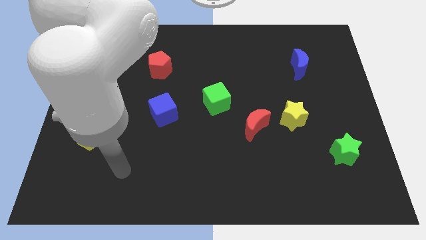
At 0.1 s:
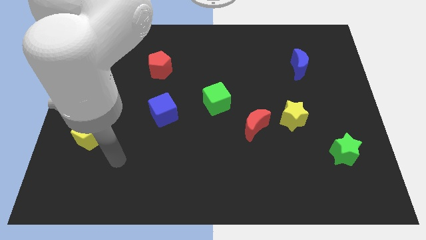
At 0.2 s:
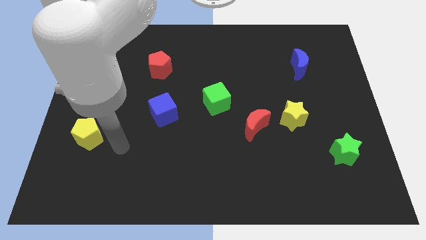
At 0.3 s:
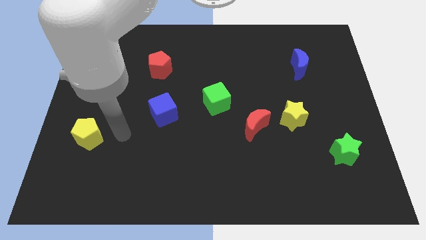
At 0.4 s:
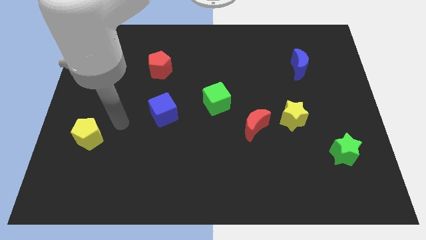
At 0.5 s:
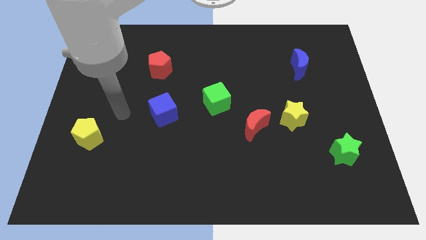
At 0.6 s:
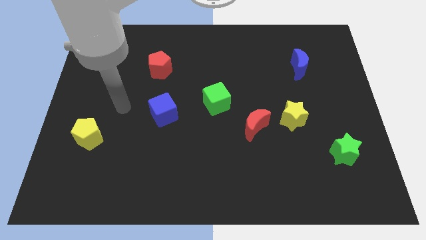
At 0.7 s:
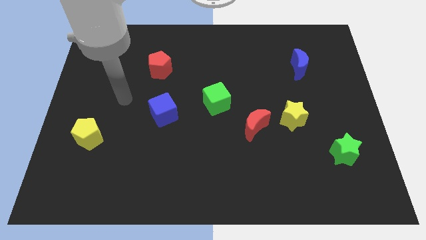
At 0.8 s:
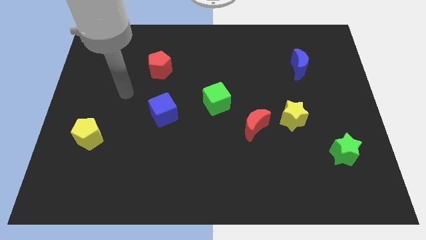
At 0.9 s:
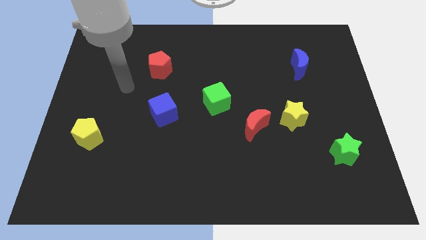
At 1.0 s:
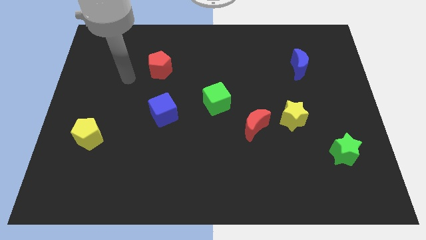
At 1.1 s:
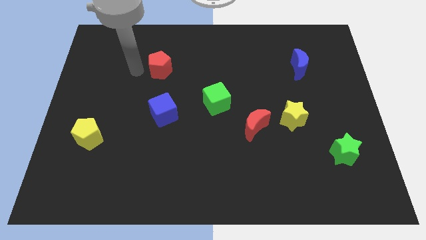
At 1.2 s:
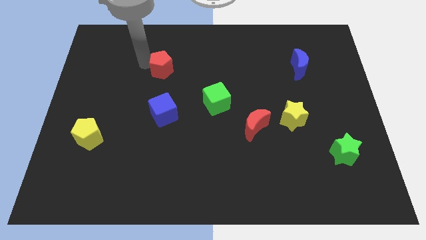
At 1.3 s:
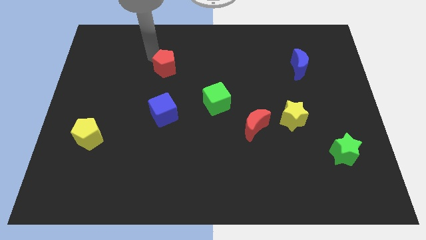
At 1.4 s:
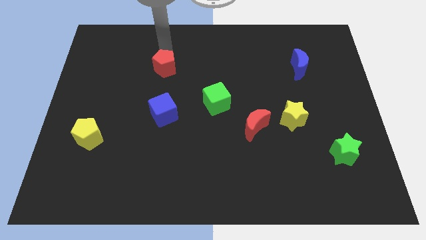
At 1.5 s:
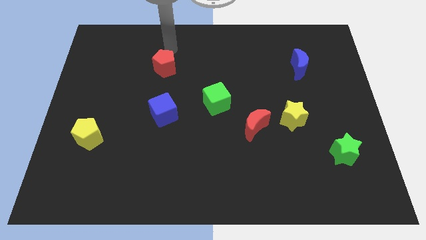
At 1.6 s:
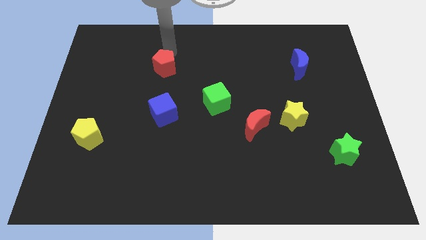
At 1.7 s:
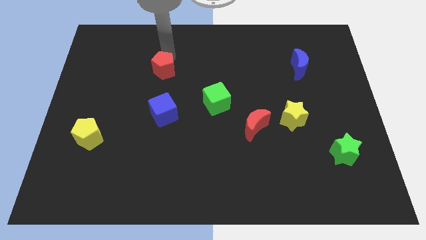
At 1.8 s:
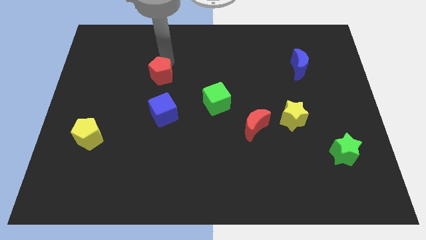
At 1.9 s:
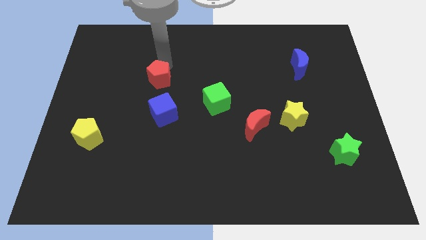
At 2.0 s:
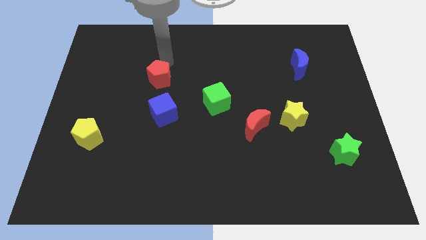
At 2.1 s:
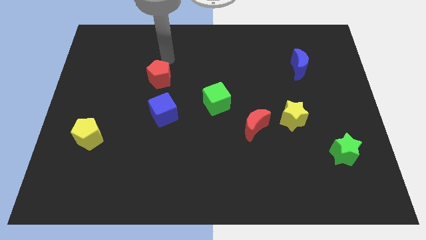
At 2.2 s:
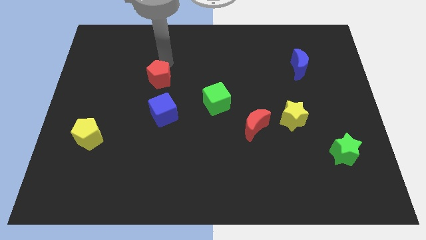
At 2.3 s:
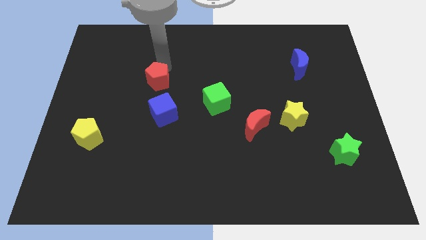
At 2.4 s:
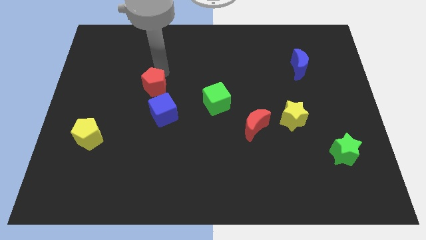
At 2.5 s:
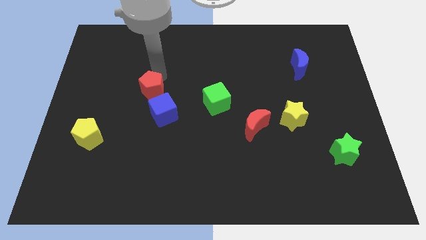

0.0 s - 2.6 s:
push the red pentagon a bit down

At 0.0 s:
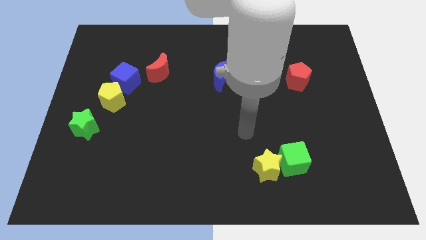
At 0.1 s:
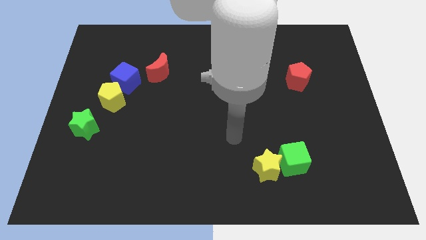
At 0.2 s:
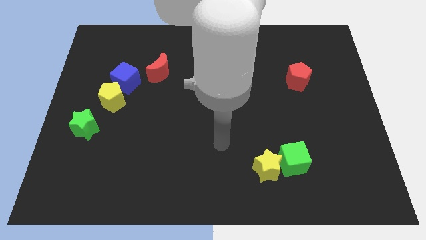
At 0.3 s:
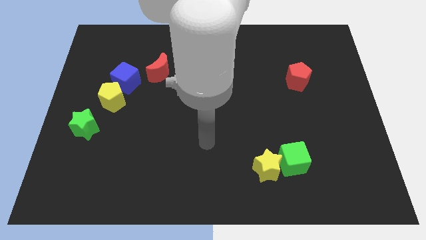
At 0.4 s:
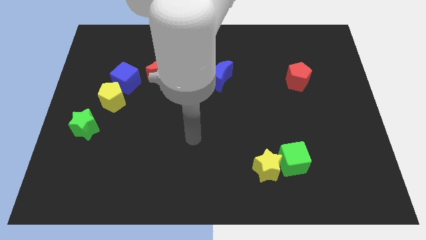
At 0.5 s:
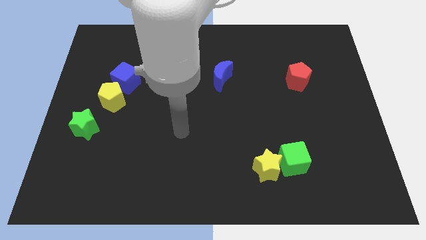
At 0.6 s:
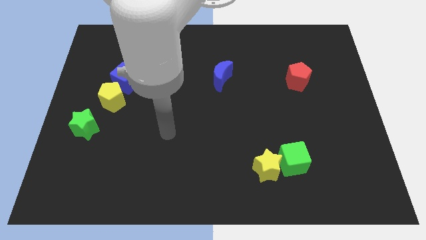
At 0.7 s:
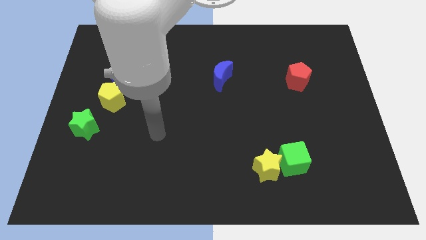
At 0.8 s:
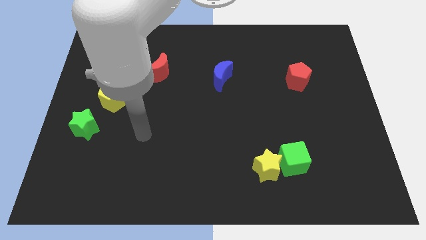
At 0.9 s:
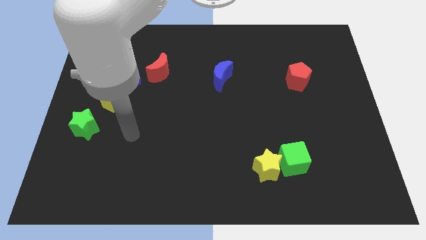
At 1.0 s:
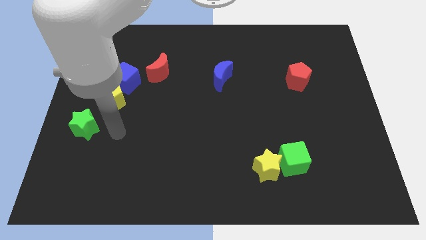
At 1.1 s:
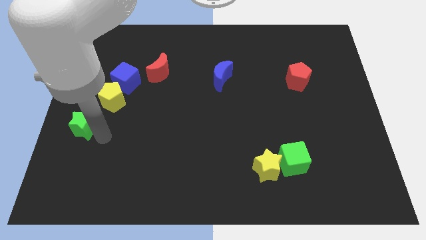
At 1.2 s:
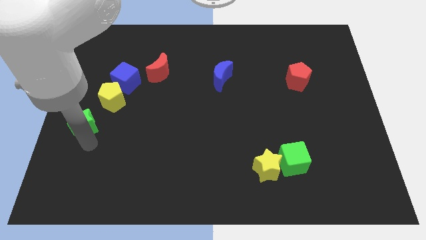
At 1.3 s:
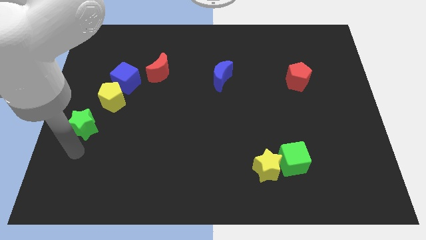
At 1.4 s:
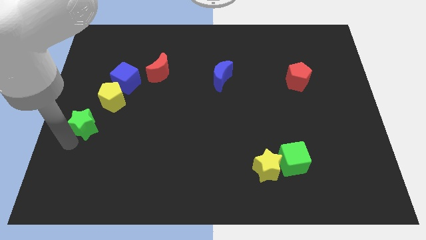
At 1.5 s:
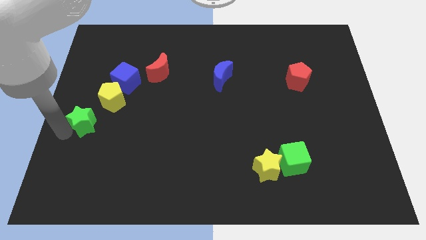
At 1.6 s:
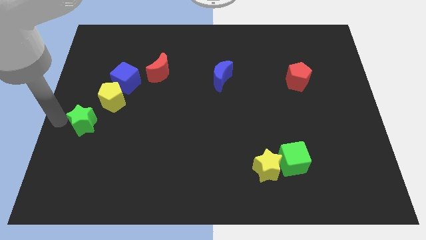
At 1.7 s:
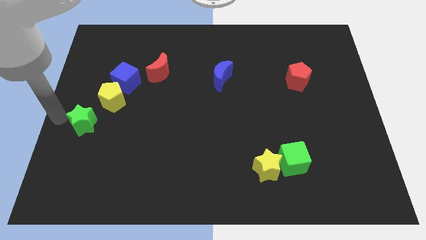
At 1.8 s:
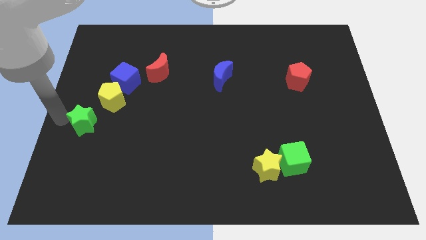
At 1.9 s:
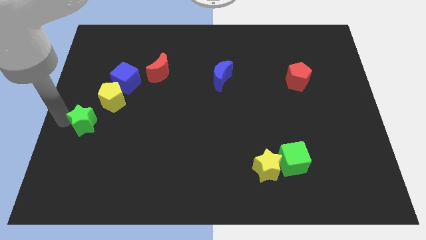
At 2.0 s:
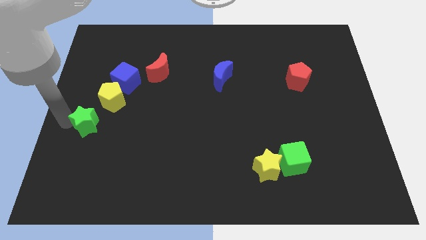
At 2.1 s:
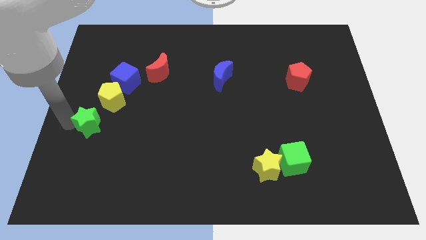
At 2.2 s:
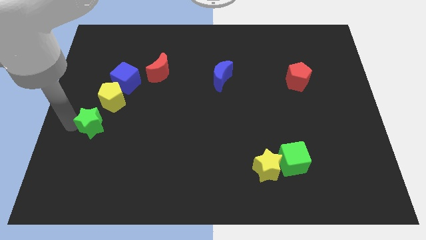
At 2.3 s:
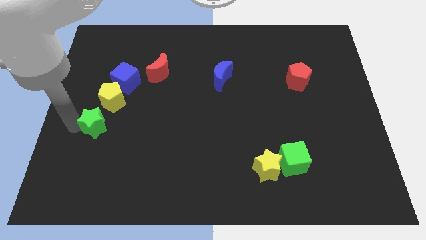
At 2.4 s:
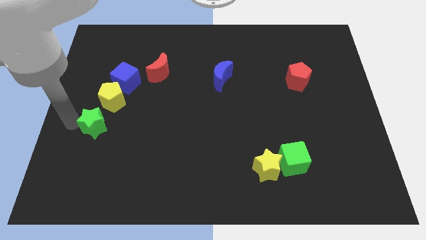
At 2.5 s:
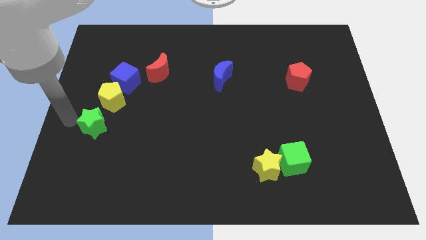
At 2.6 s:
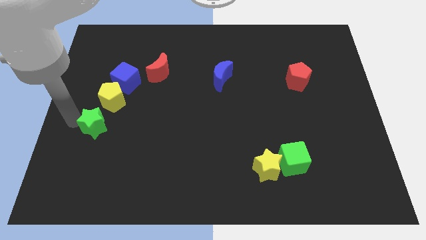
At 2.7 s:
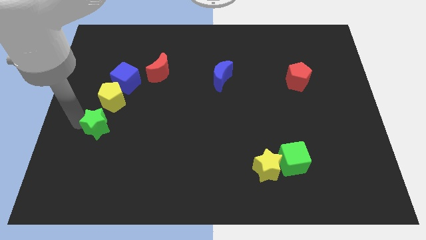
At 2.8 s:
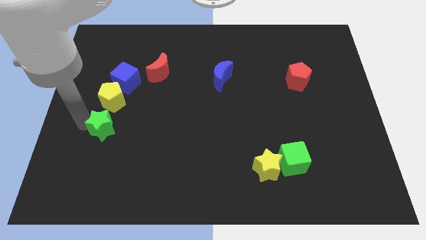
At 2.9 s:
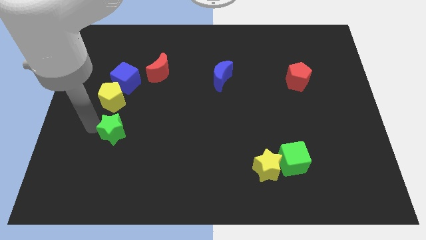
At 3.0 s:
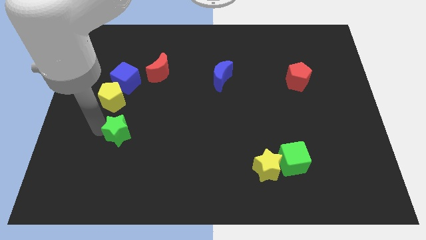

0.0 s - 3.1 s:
push the green star slightly to the right

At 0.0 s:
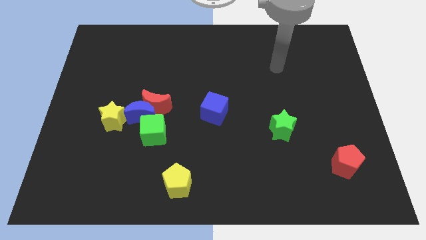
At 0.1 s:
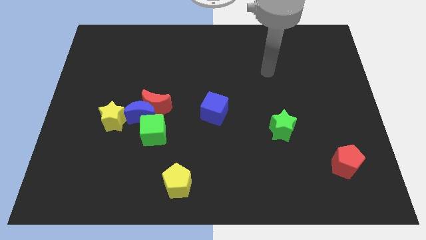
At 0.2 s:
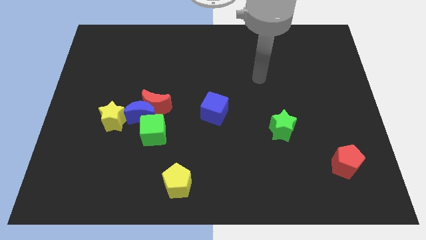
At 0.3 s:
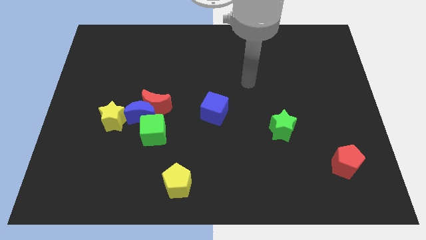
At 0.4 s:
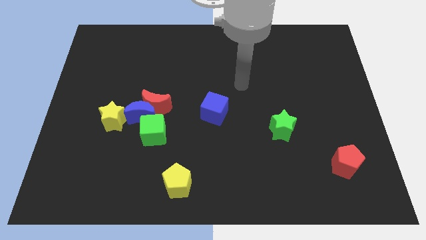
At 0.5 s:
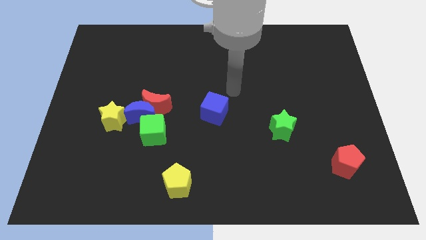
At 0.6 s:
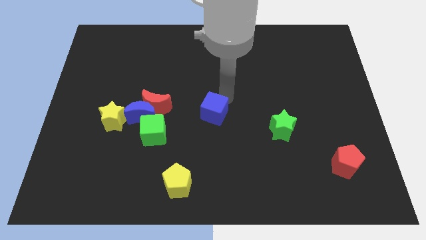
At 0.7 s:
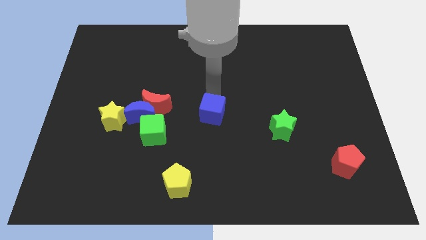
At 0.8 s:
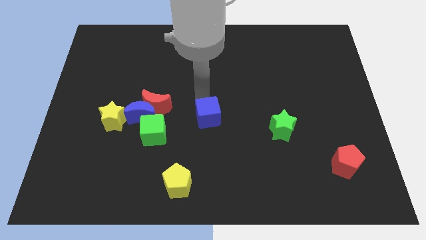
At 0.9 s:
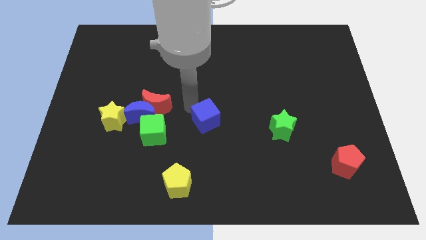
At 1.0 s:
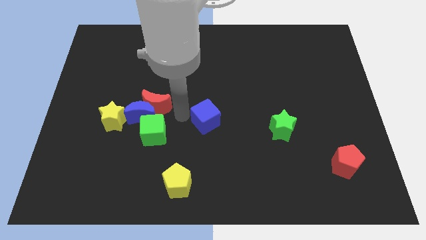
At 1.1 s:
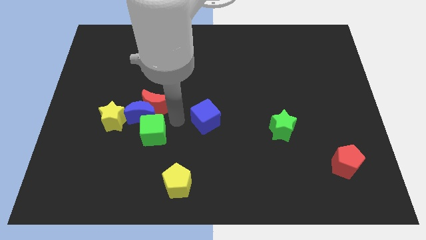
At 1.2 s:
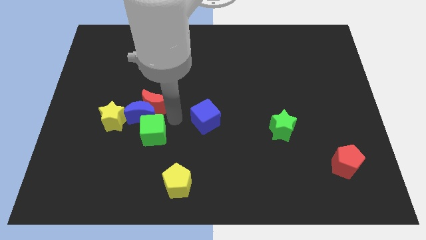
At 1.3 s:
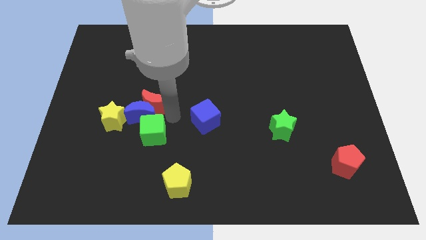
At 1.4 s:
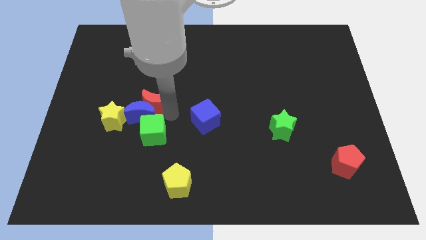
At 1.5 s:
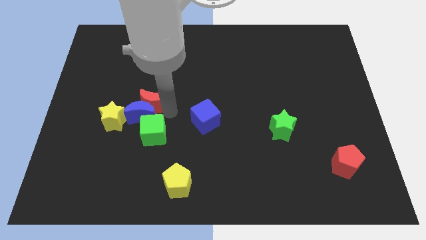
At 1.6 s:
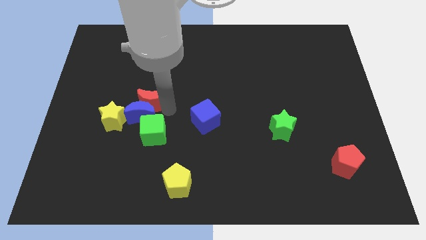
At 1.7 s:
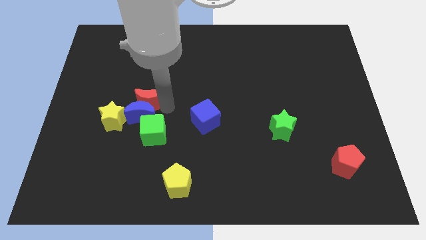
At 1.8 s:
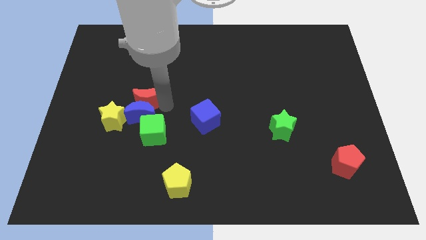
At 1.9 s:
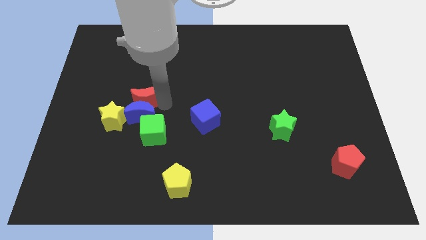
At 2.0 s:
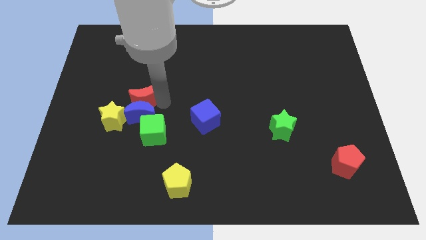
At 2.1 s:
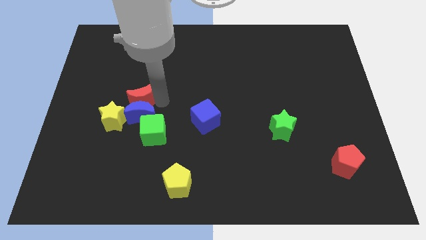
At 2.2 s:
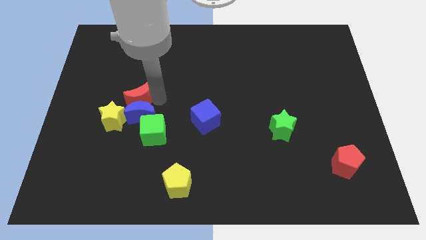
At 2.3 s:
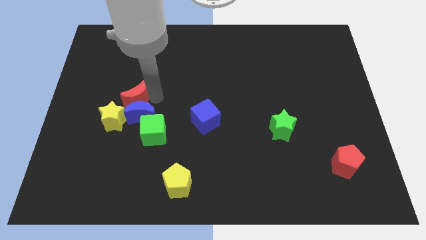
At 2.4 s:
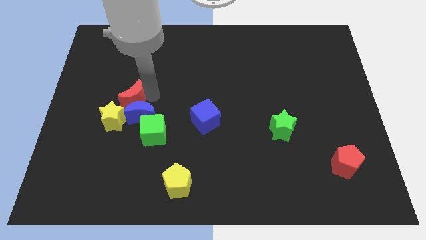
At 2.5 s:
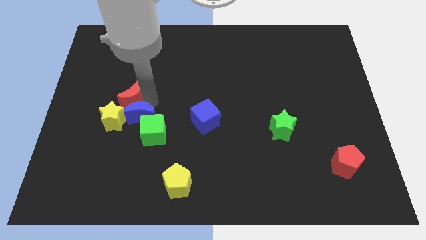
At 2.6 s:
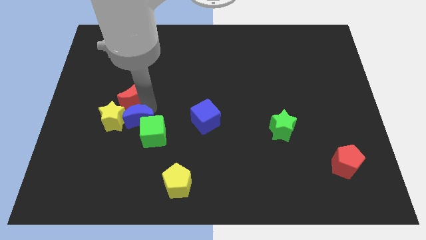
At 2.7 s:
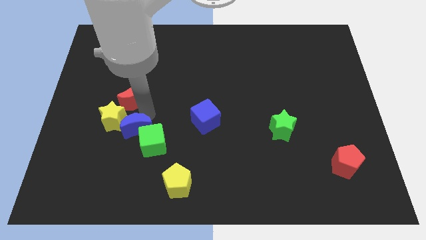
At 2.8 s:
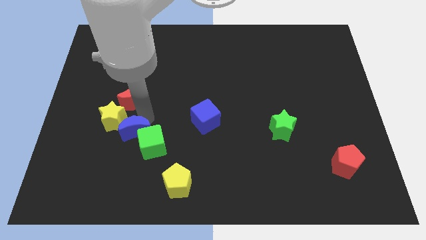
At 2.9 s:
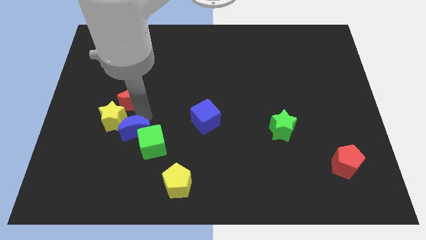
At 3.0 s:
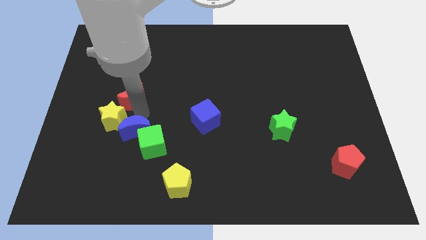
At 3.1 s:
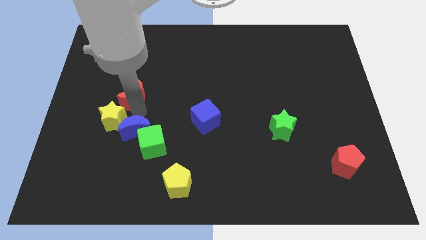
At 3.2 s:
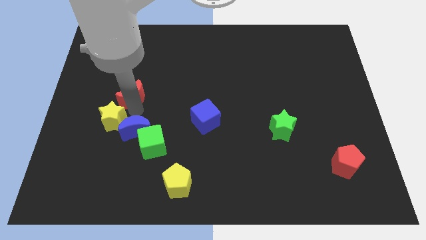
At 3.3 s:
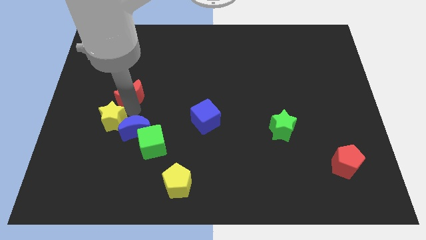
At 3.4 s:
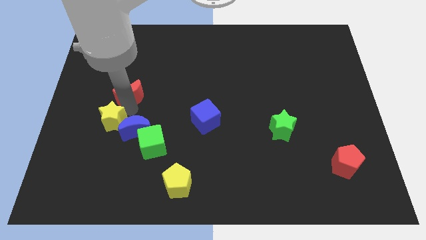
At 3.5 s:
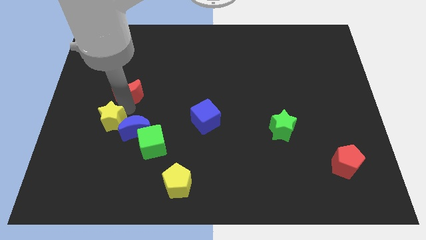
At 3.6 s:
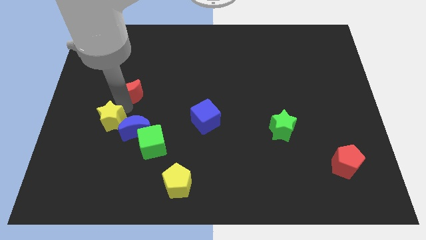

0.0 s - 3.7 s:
slightly slide the red moon diagonally up and left
